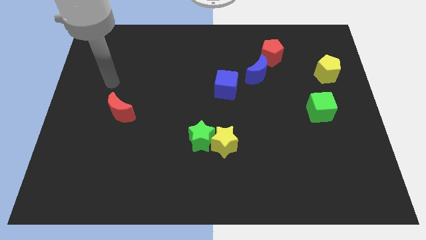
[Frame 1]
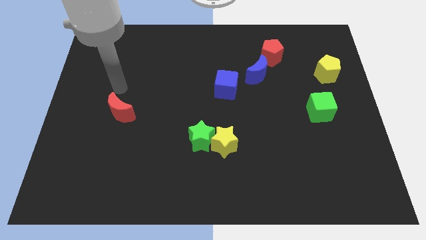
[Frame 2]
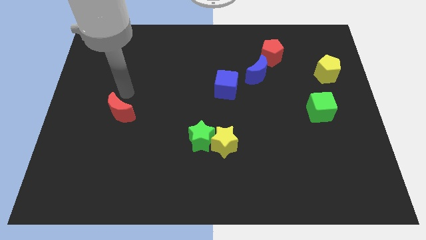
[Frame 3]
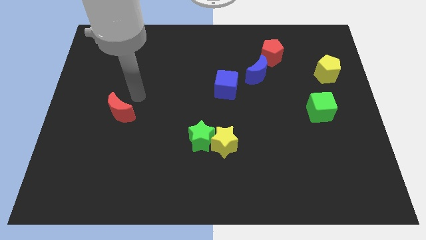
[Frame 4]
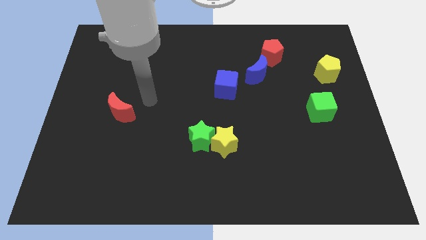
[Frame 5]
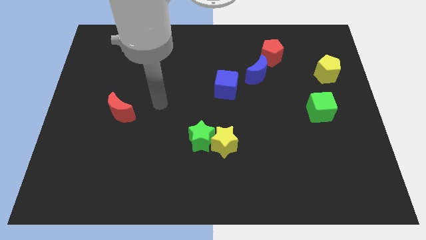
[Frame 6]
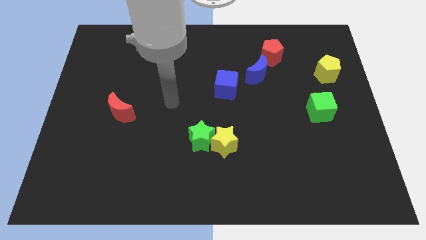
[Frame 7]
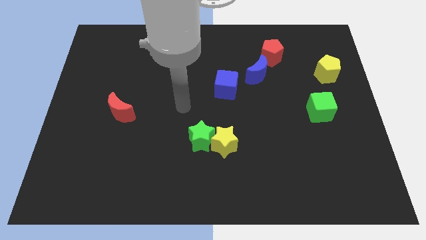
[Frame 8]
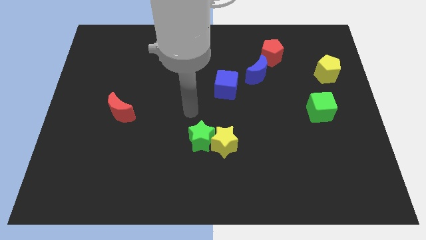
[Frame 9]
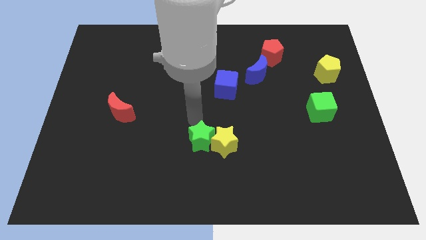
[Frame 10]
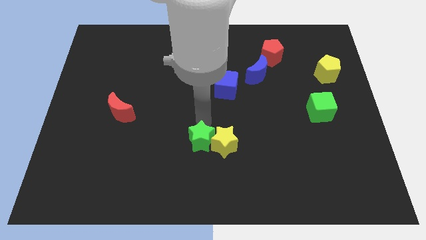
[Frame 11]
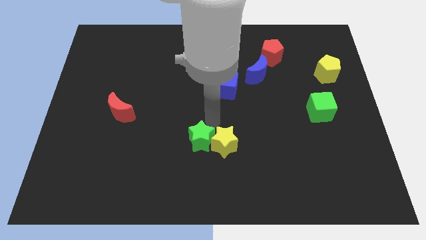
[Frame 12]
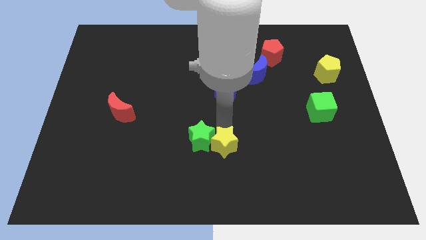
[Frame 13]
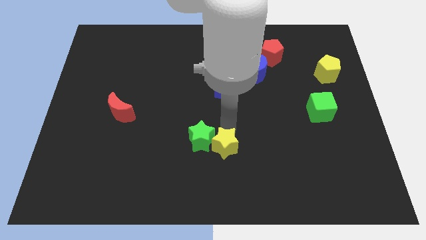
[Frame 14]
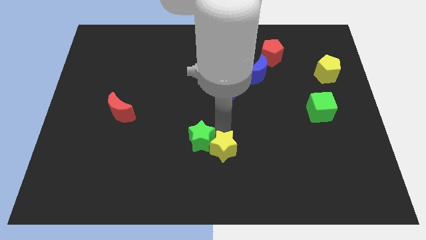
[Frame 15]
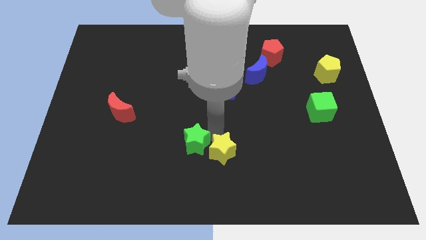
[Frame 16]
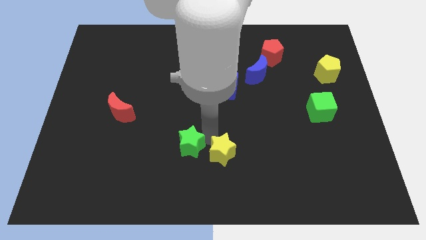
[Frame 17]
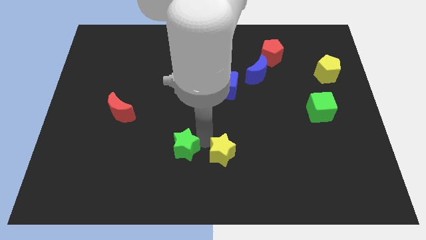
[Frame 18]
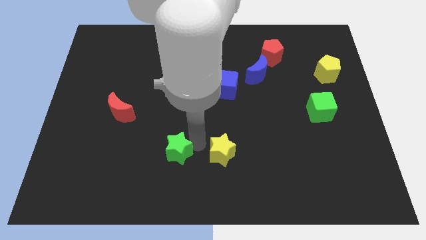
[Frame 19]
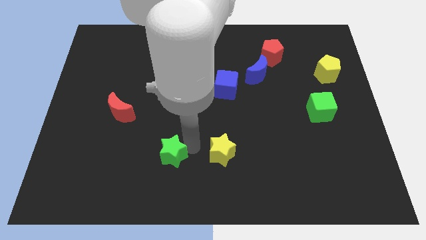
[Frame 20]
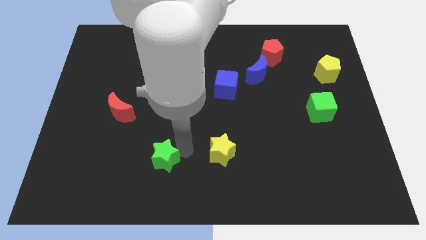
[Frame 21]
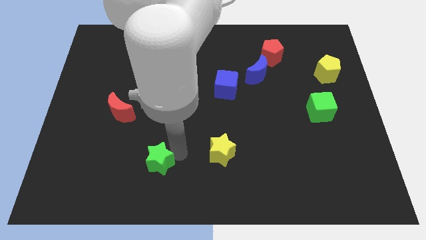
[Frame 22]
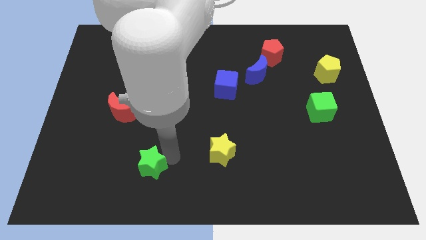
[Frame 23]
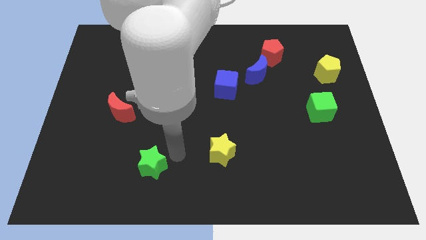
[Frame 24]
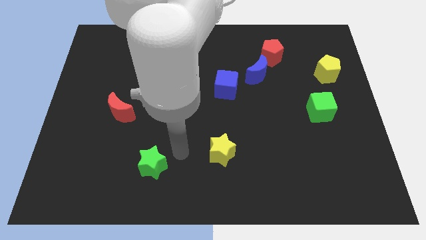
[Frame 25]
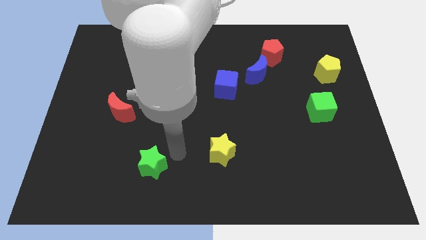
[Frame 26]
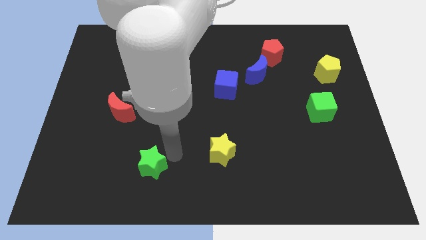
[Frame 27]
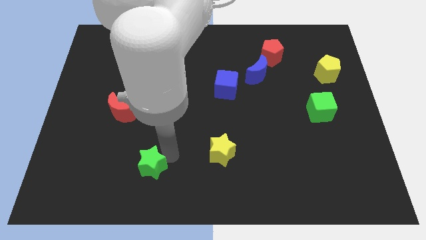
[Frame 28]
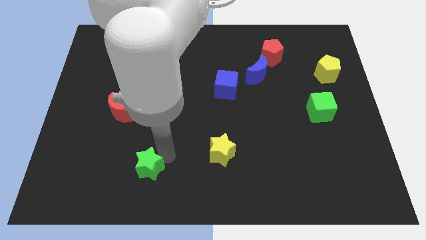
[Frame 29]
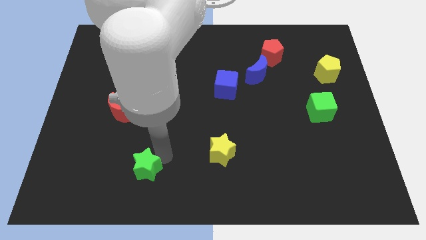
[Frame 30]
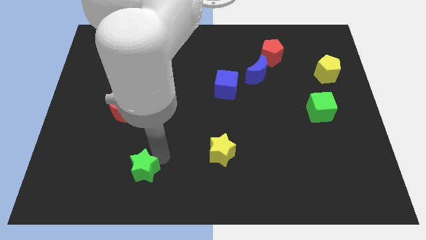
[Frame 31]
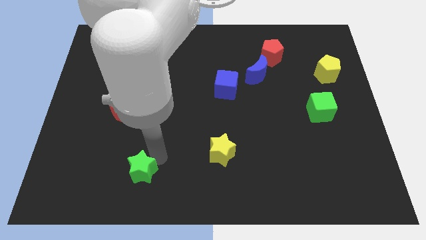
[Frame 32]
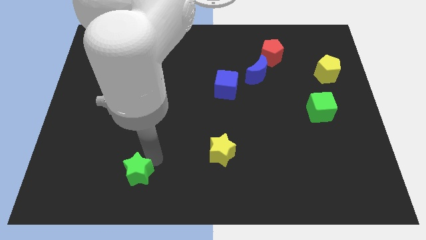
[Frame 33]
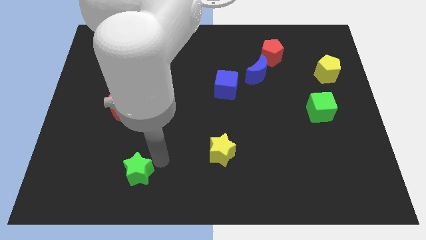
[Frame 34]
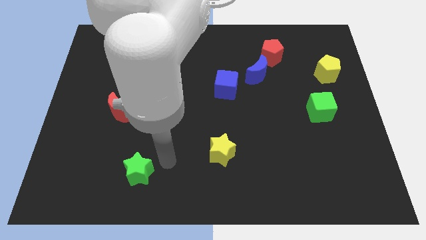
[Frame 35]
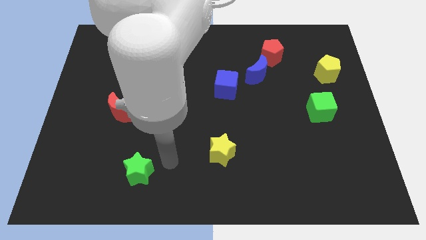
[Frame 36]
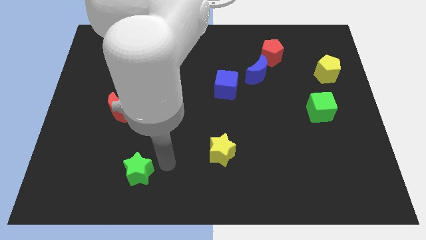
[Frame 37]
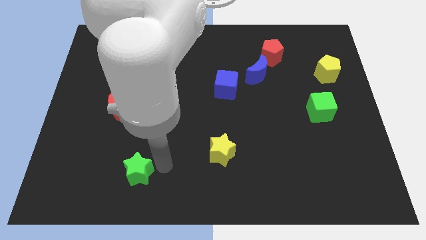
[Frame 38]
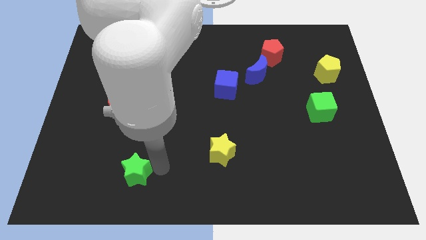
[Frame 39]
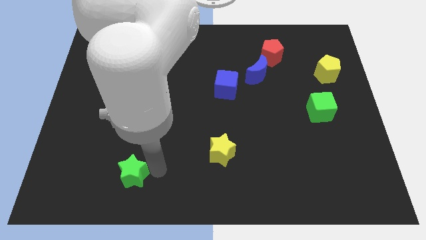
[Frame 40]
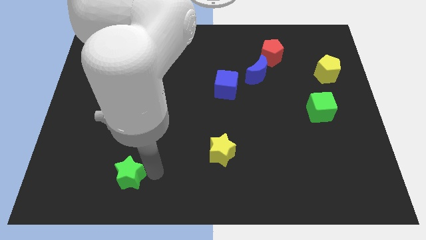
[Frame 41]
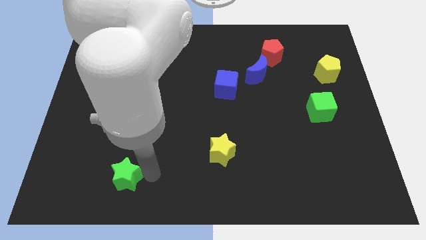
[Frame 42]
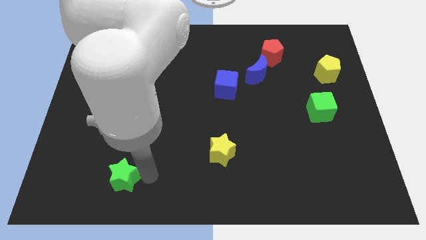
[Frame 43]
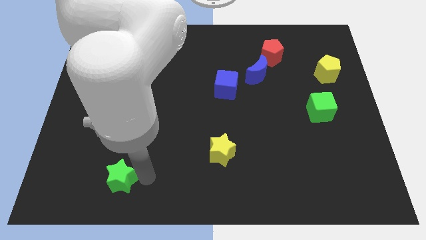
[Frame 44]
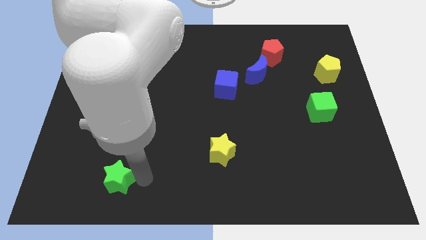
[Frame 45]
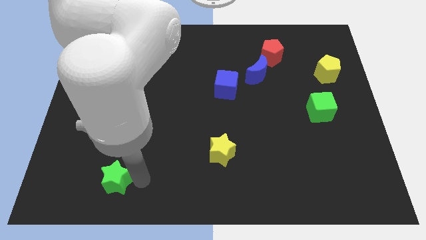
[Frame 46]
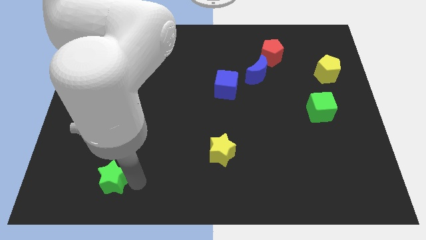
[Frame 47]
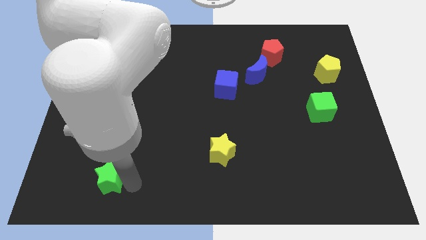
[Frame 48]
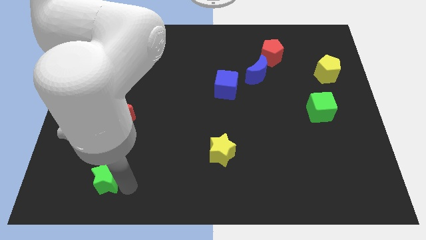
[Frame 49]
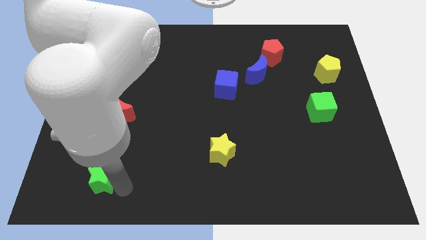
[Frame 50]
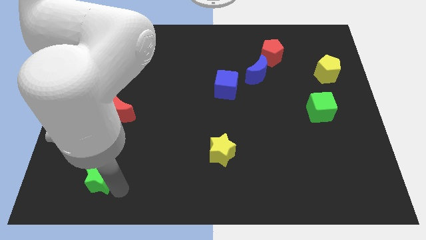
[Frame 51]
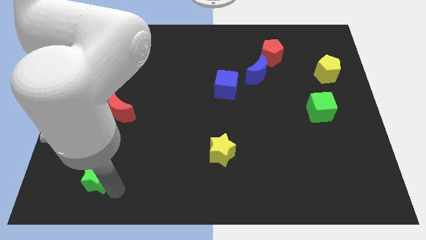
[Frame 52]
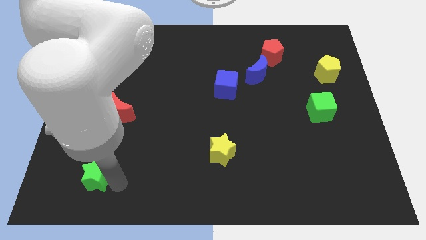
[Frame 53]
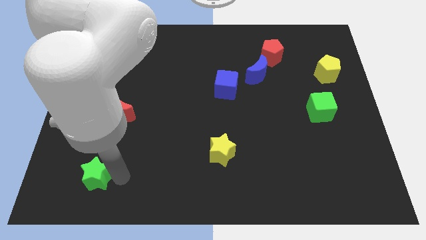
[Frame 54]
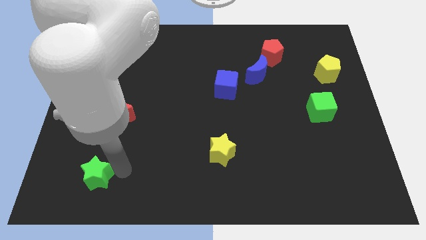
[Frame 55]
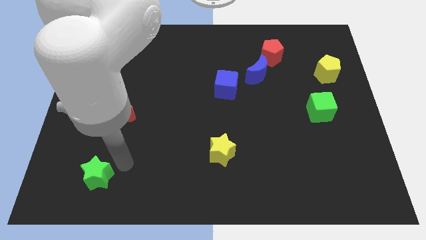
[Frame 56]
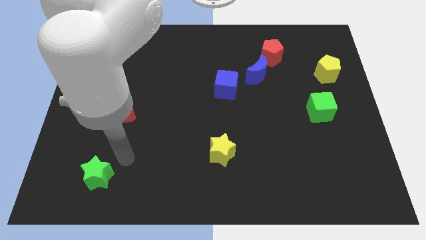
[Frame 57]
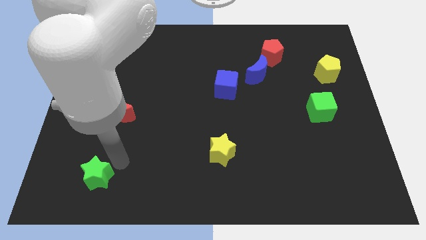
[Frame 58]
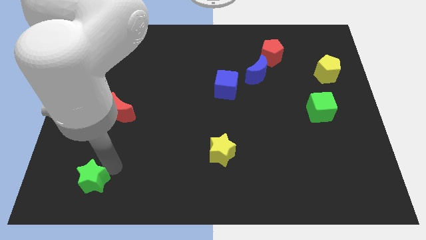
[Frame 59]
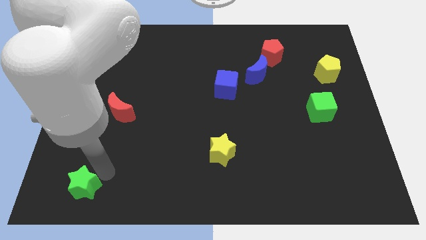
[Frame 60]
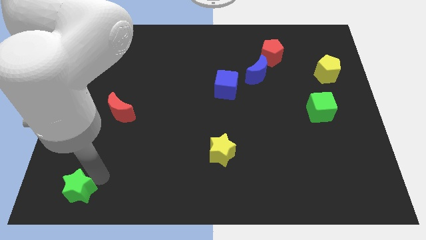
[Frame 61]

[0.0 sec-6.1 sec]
slide the green star to the bottom left corner
